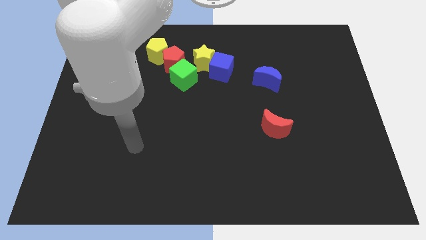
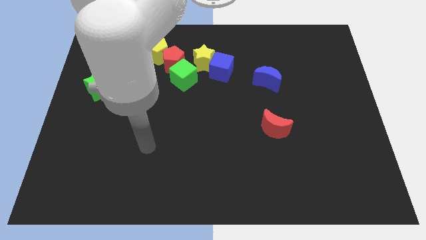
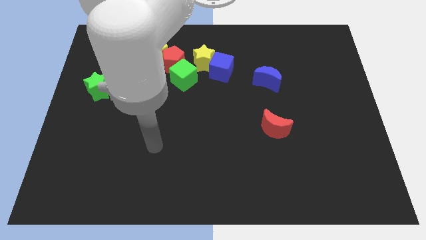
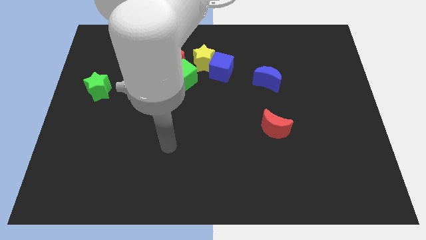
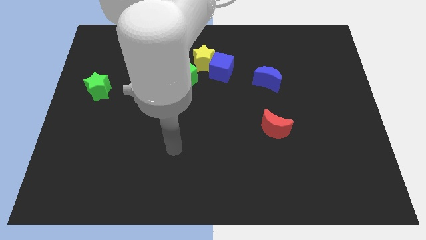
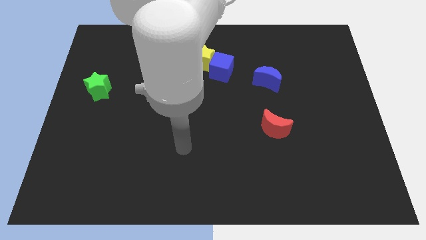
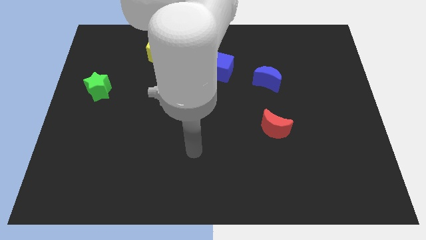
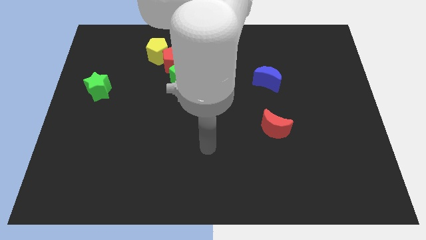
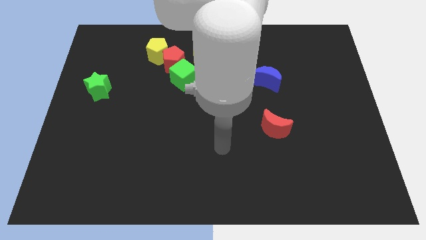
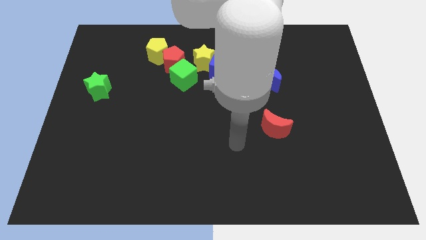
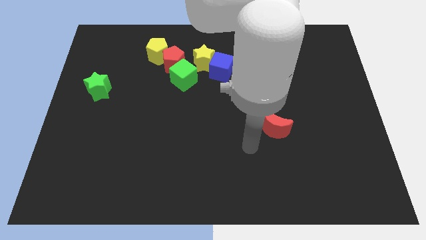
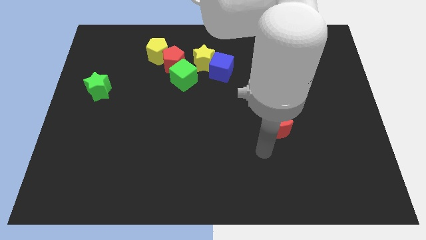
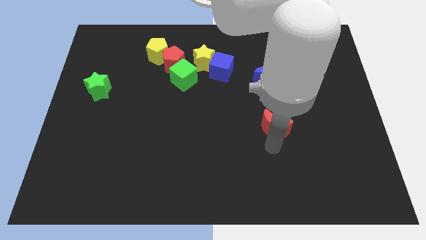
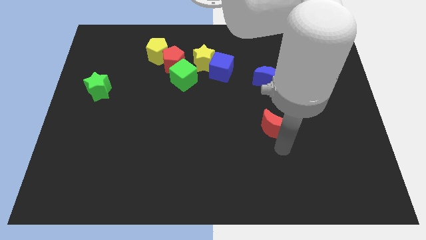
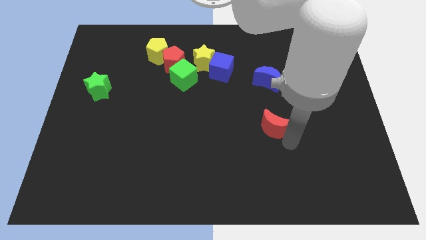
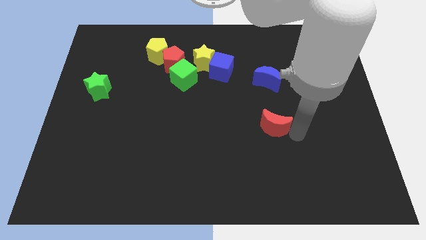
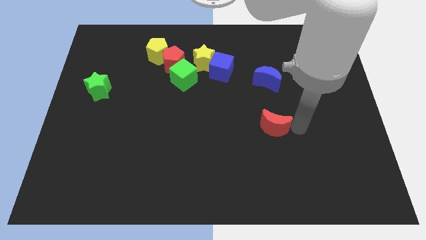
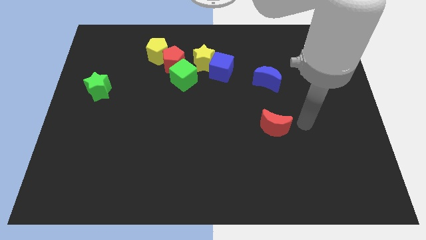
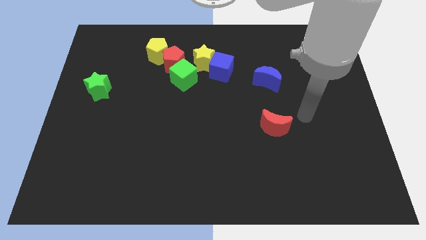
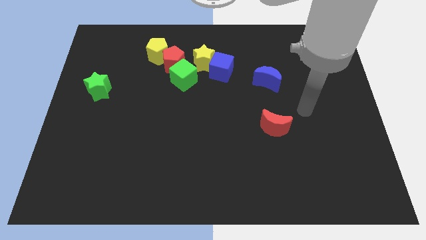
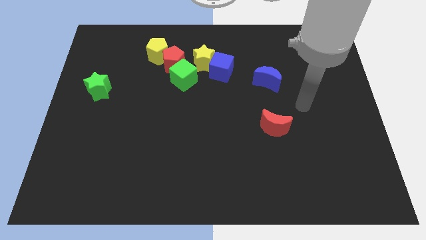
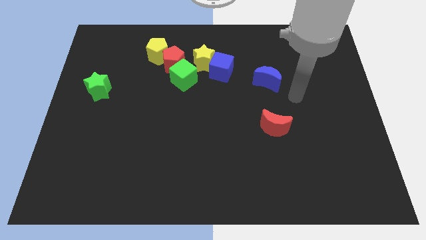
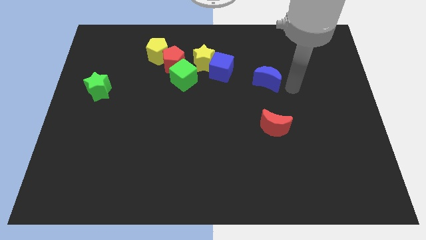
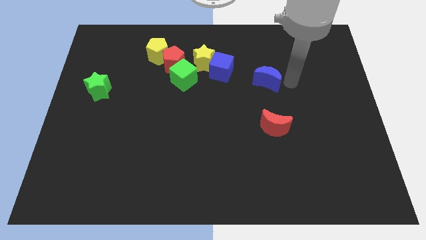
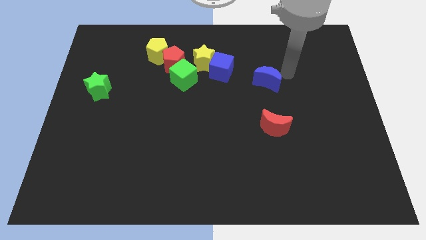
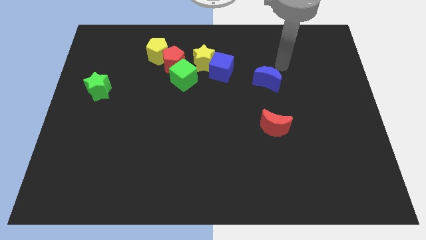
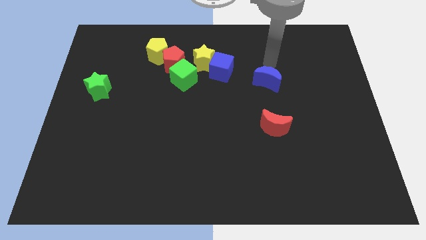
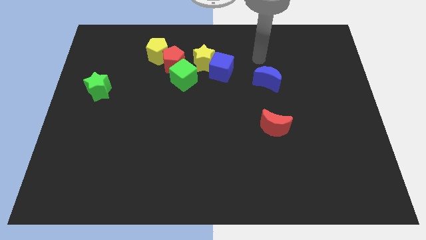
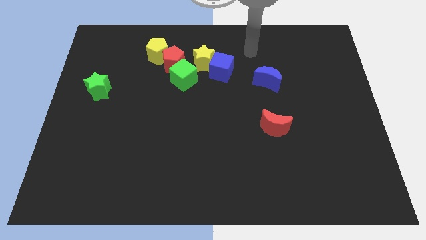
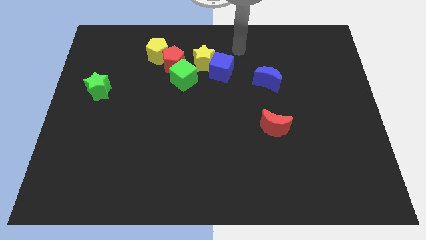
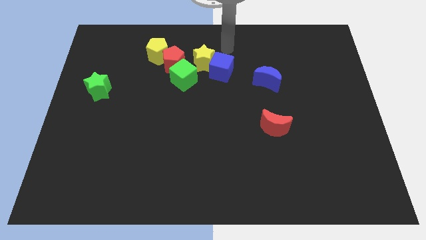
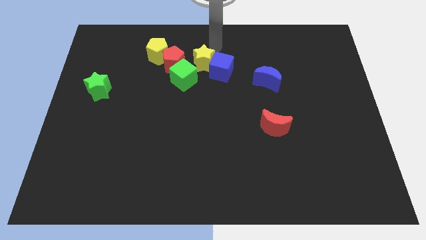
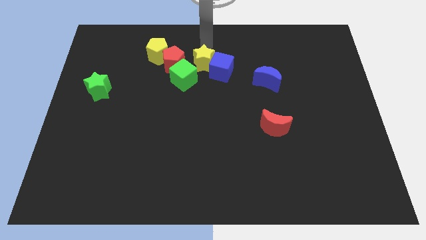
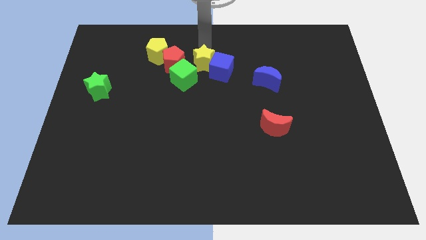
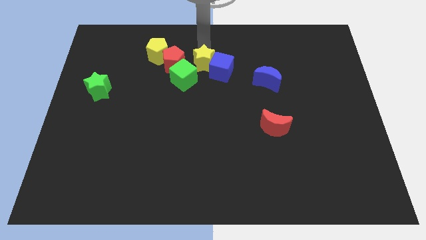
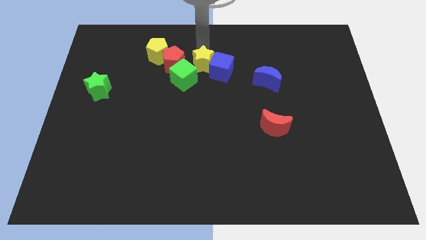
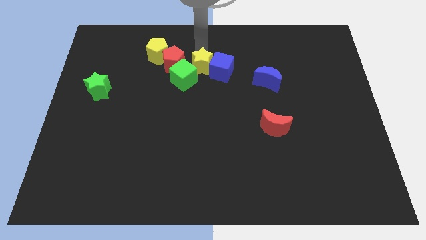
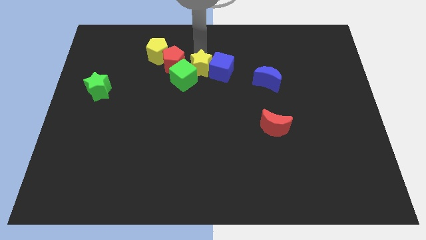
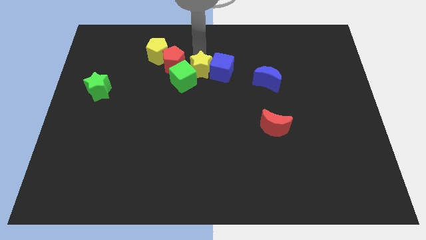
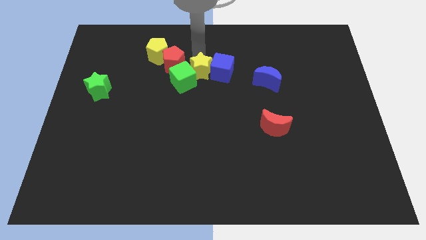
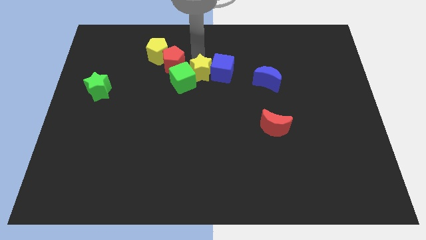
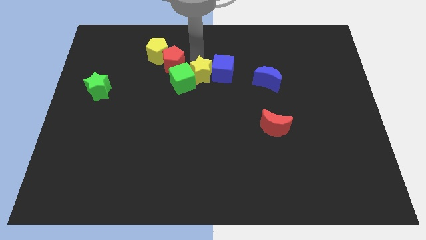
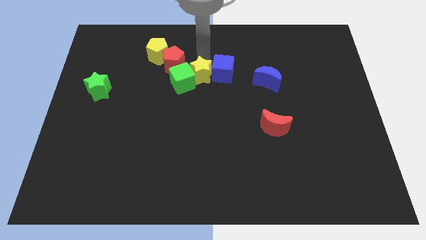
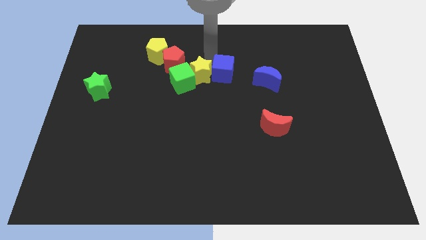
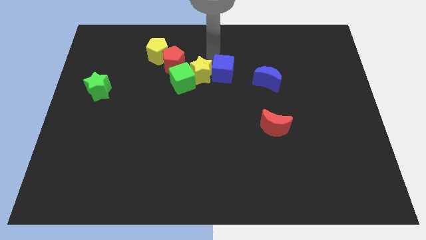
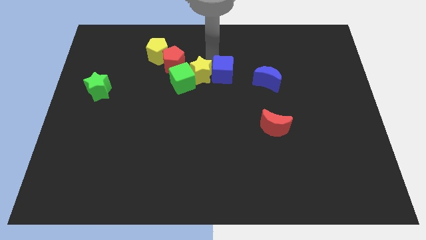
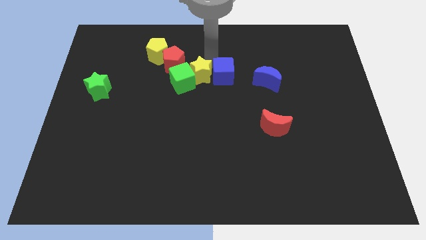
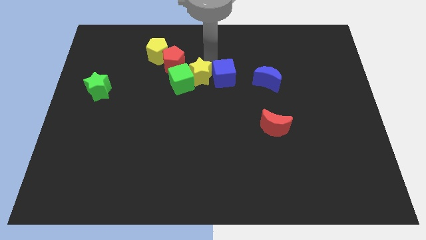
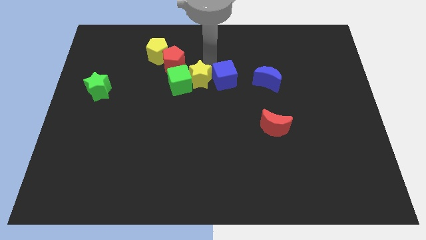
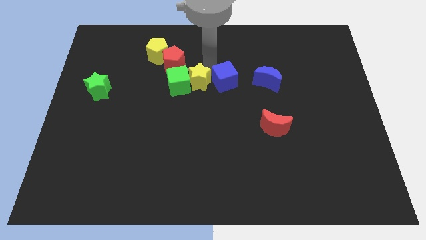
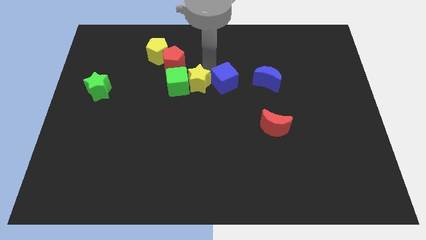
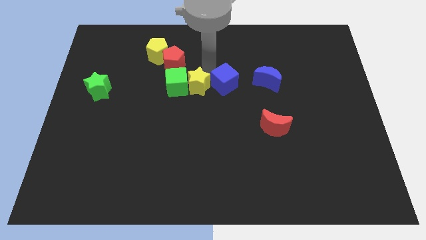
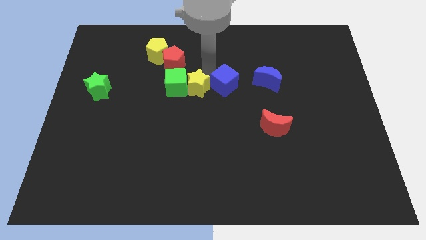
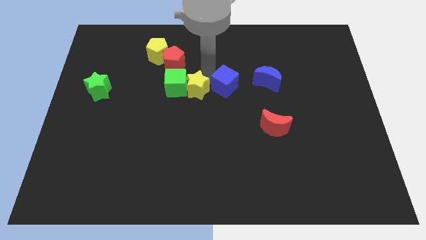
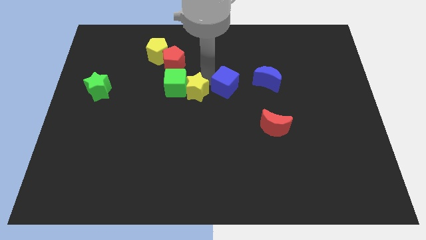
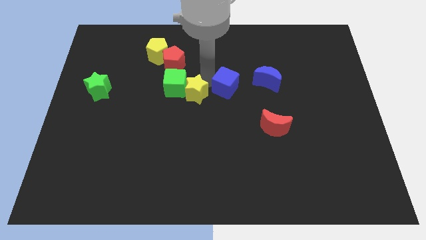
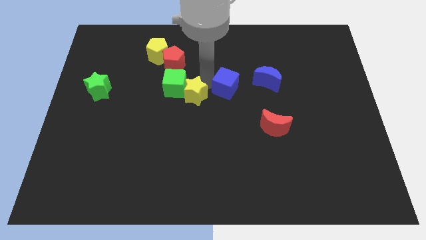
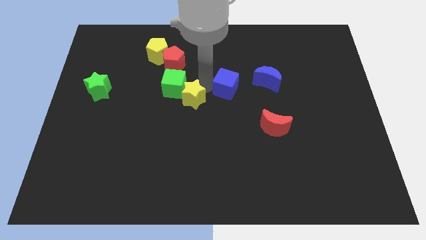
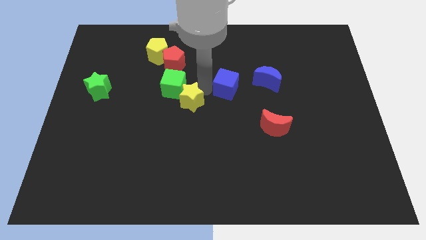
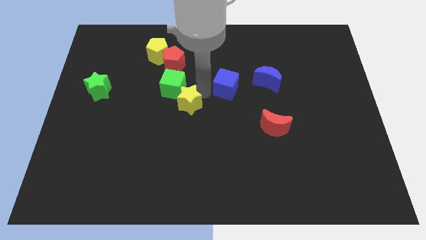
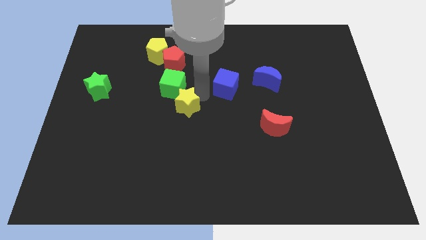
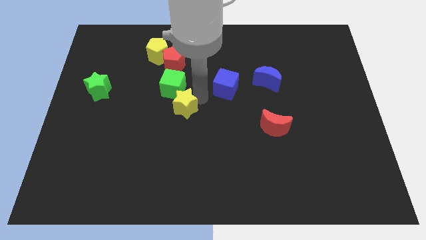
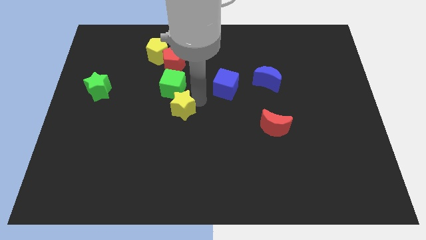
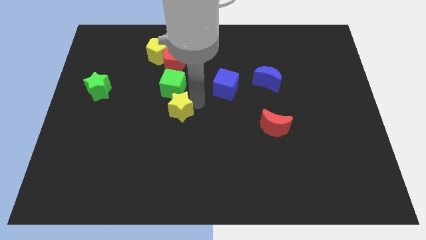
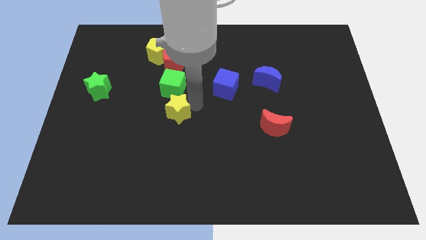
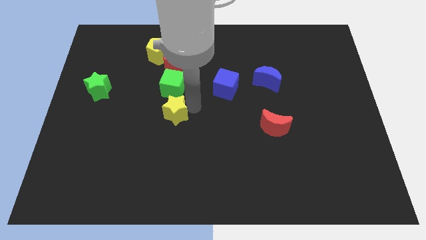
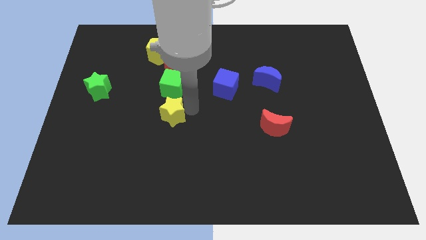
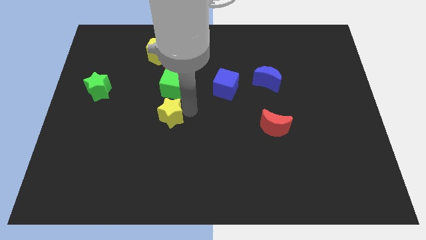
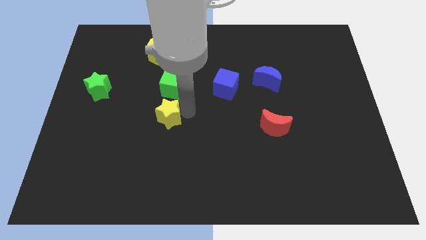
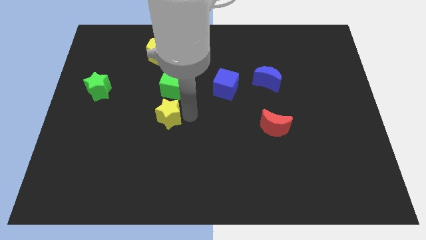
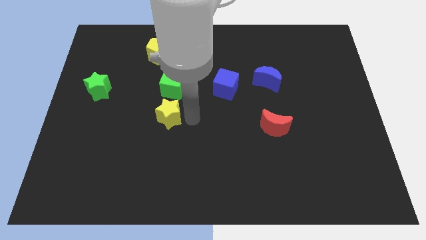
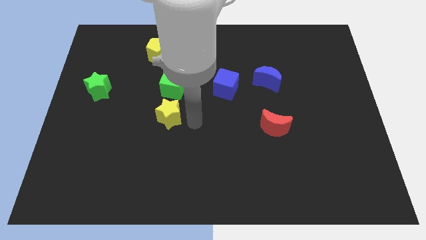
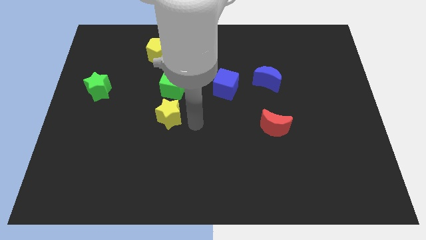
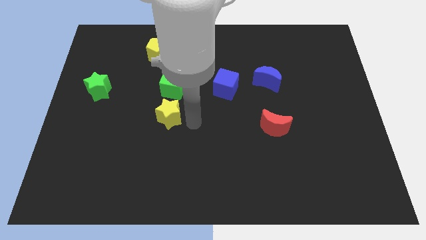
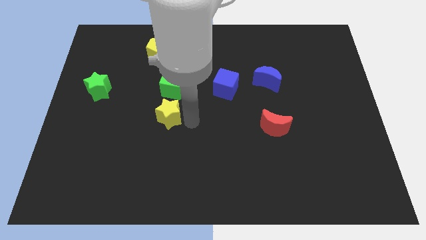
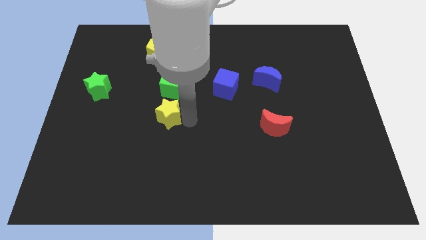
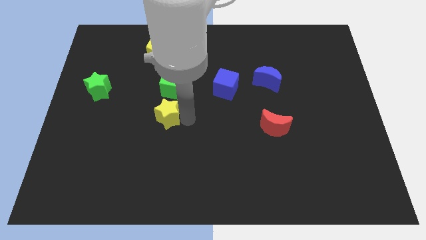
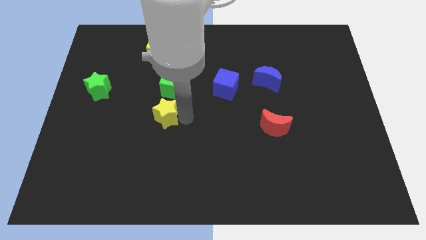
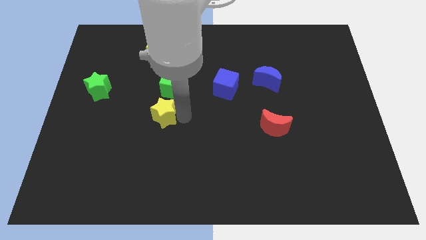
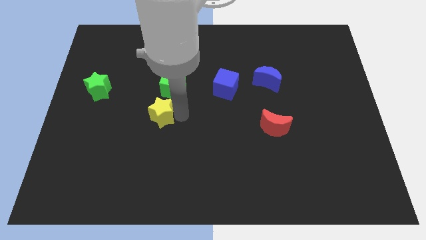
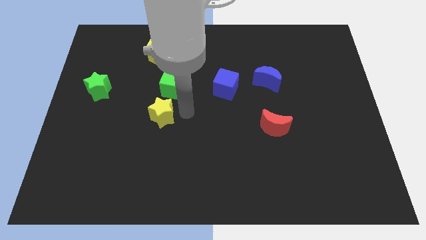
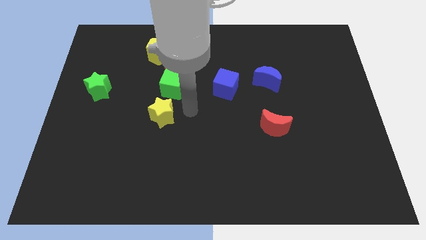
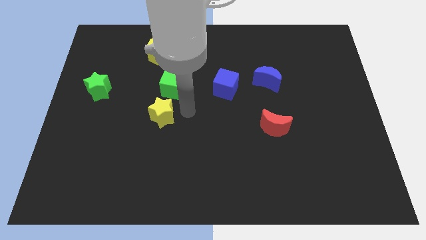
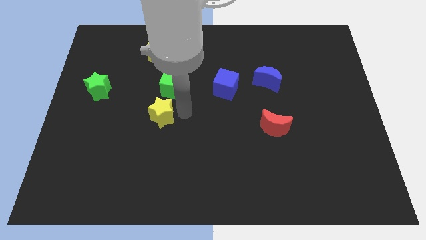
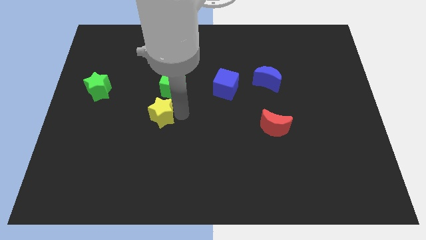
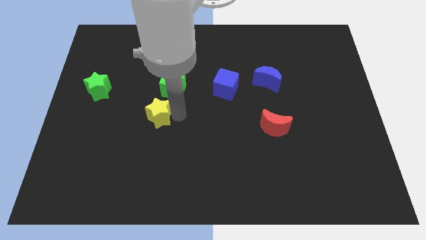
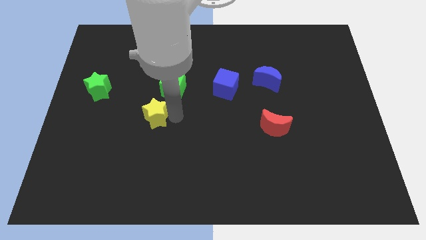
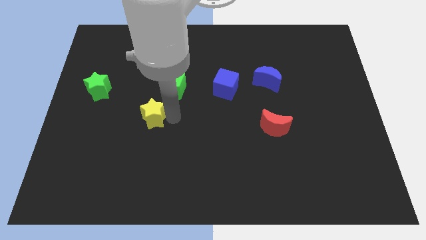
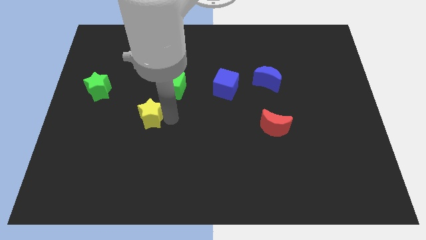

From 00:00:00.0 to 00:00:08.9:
push the yellow star down and to the left diagonally
